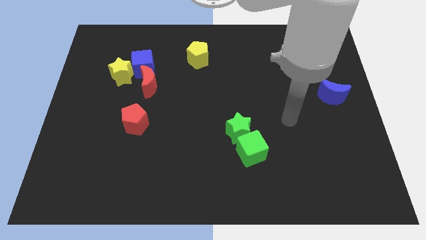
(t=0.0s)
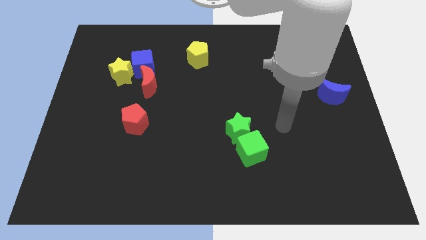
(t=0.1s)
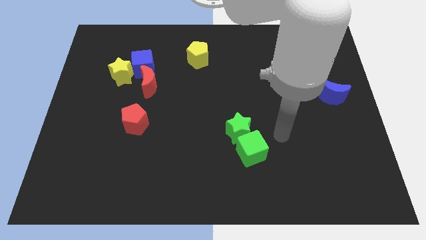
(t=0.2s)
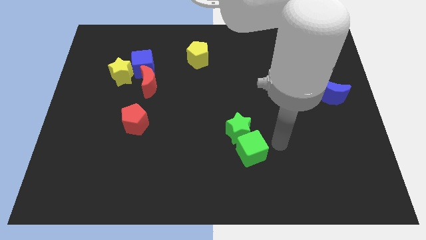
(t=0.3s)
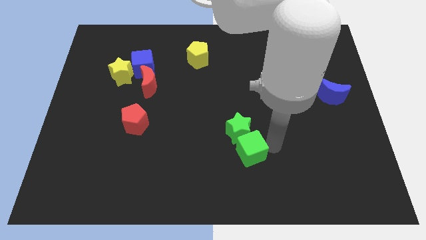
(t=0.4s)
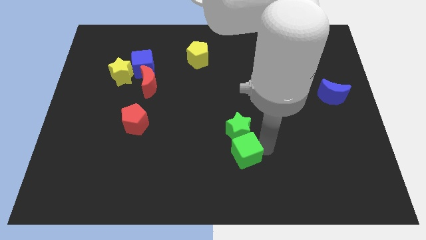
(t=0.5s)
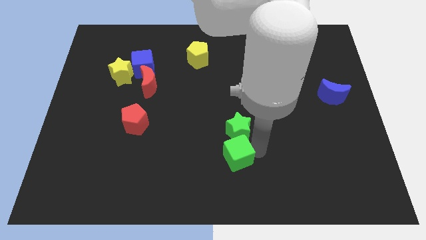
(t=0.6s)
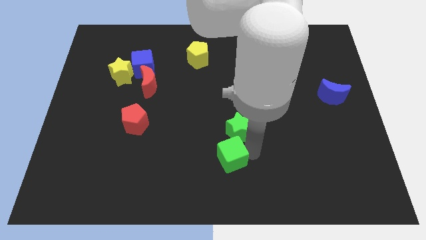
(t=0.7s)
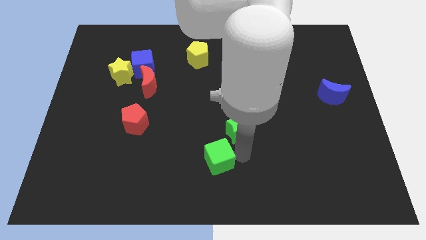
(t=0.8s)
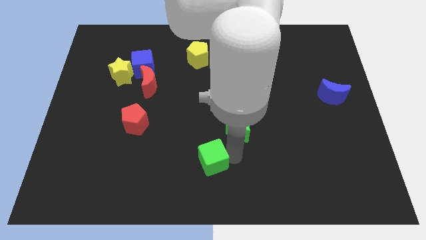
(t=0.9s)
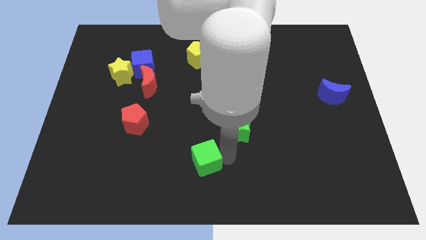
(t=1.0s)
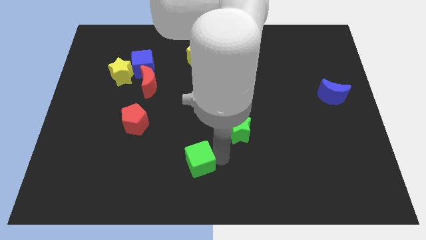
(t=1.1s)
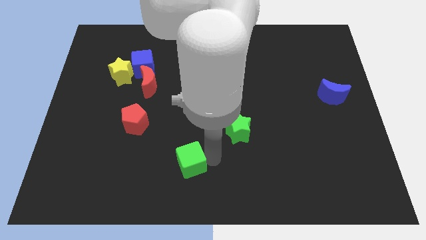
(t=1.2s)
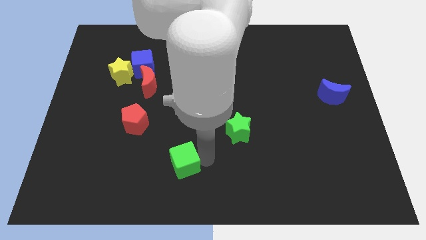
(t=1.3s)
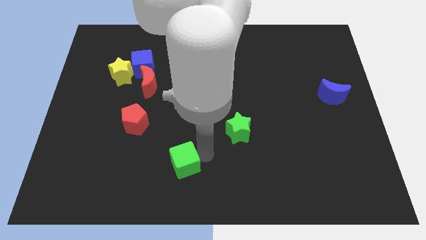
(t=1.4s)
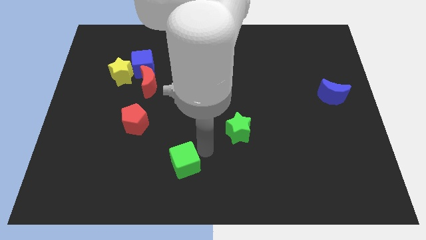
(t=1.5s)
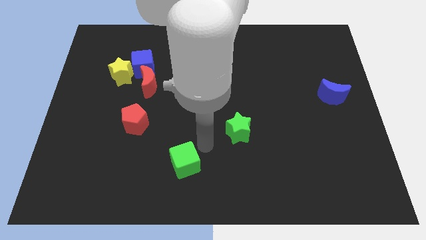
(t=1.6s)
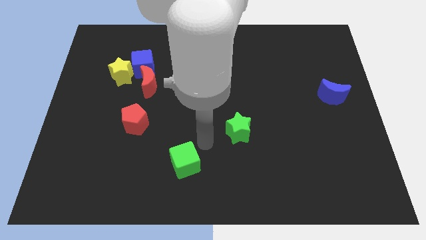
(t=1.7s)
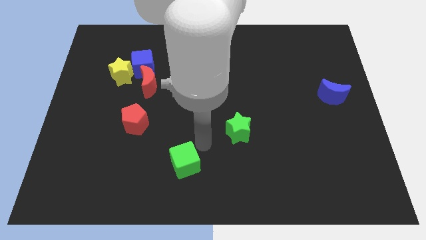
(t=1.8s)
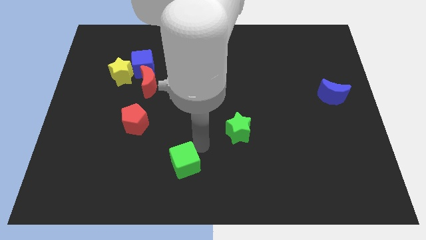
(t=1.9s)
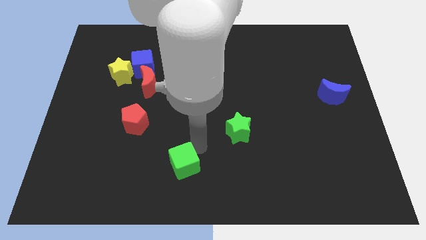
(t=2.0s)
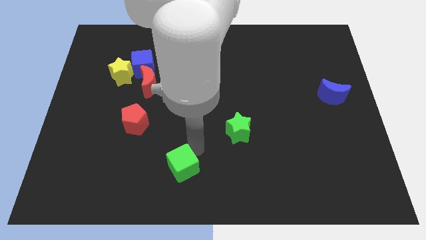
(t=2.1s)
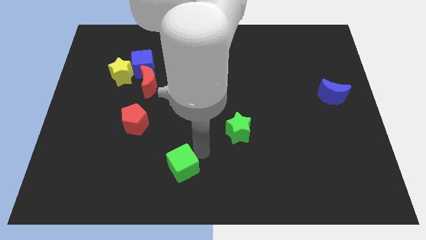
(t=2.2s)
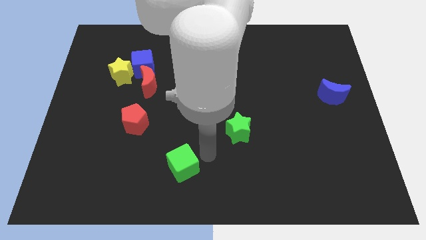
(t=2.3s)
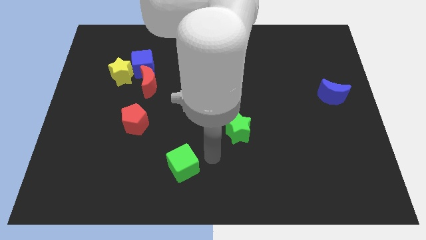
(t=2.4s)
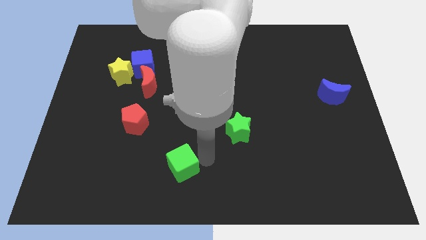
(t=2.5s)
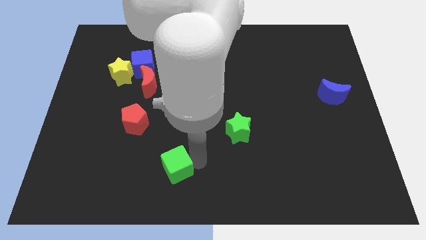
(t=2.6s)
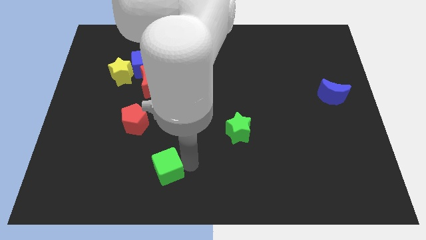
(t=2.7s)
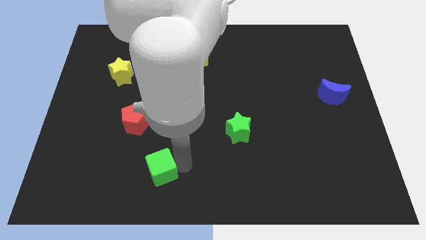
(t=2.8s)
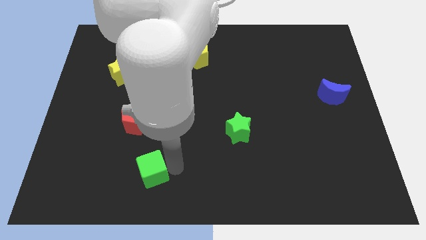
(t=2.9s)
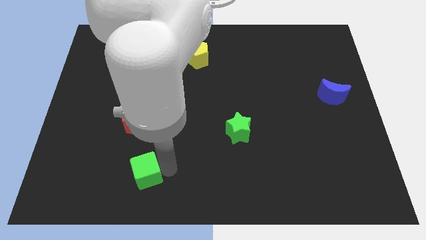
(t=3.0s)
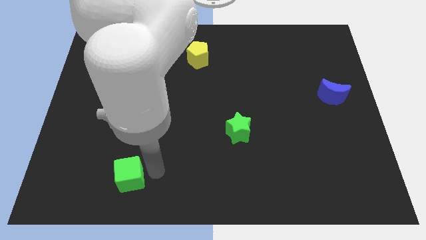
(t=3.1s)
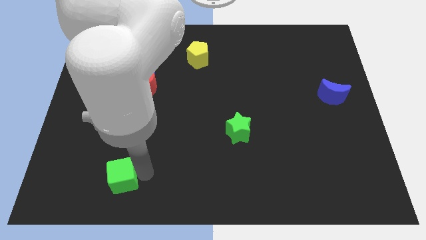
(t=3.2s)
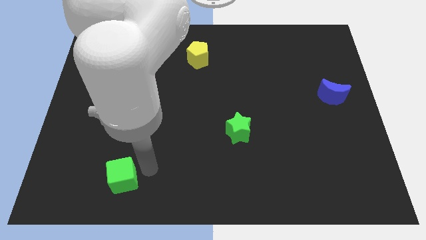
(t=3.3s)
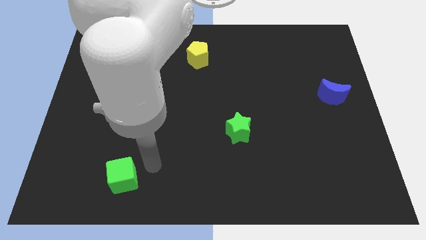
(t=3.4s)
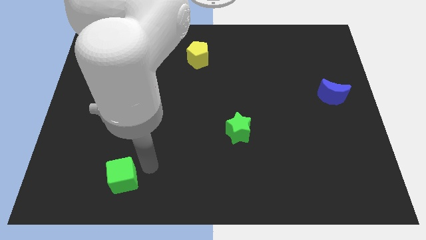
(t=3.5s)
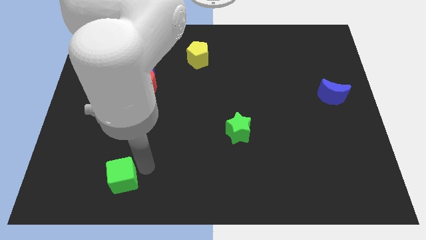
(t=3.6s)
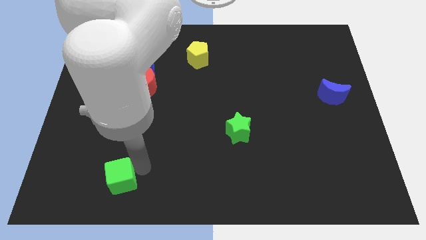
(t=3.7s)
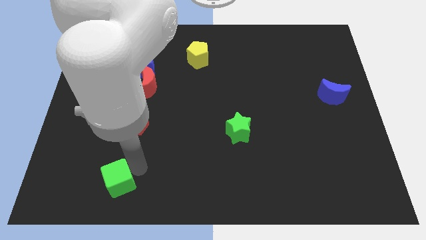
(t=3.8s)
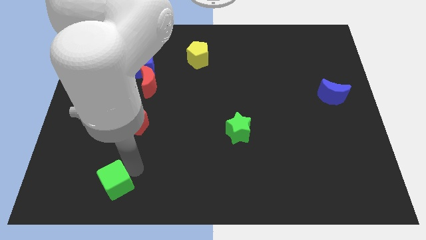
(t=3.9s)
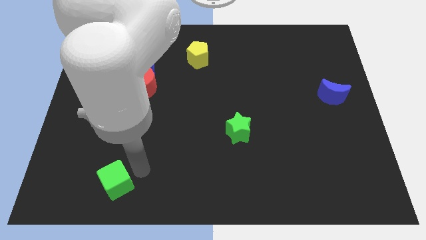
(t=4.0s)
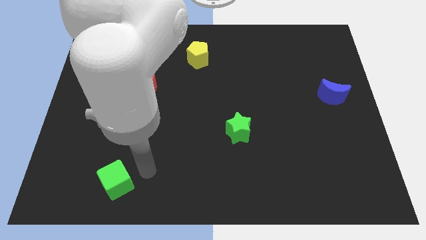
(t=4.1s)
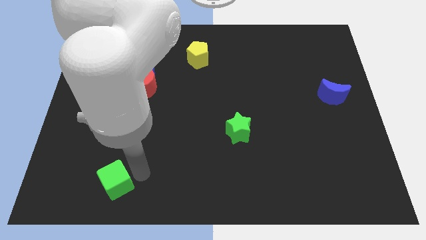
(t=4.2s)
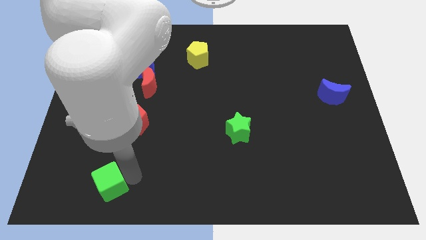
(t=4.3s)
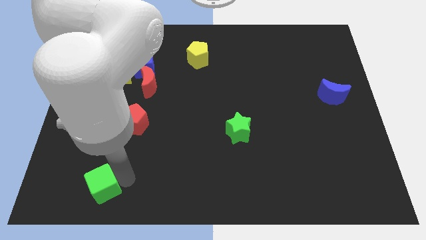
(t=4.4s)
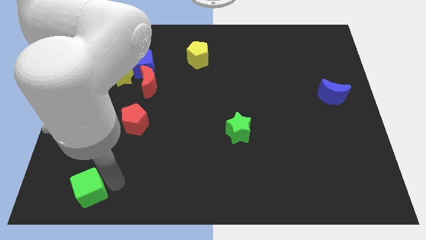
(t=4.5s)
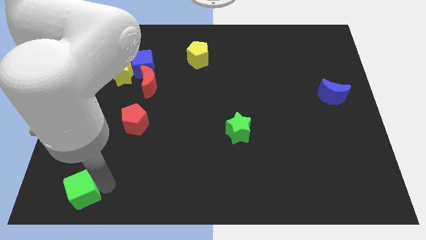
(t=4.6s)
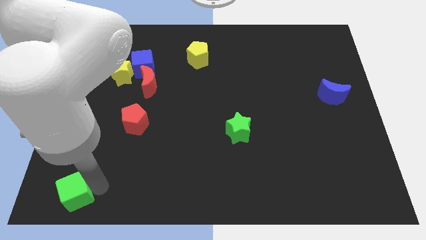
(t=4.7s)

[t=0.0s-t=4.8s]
put the green cube to the bottom left corner

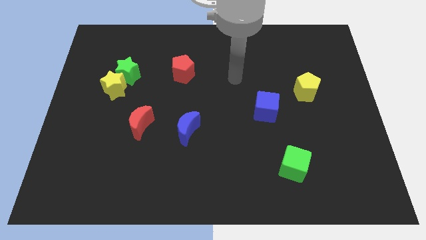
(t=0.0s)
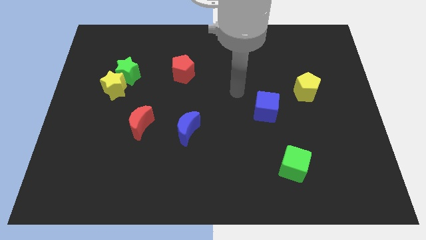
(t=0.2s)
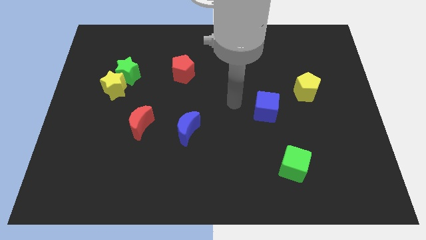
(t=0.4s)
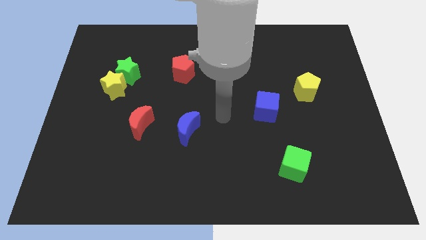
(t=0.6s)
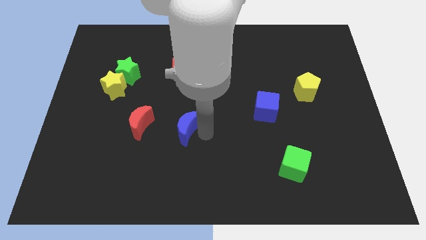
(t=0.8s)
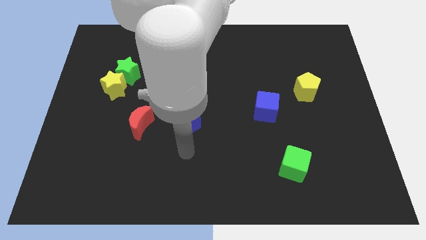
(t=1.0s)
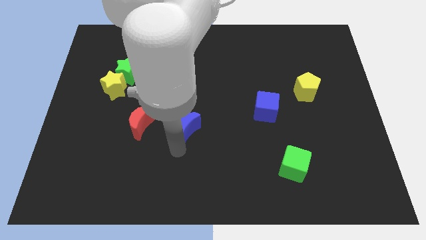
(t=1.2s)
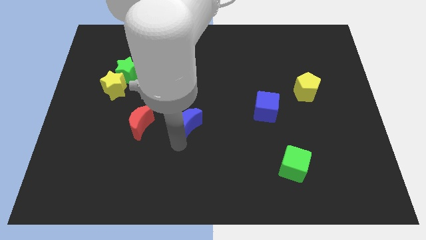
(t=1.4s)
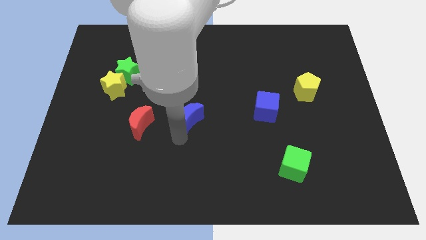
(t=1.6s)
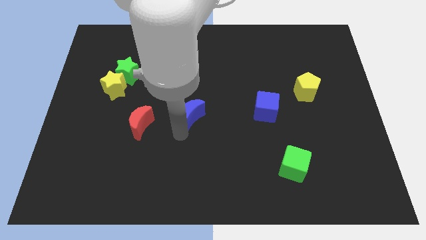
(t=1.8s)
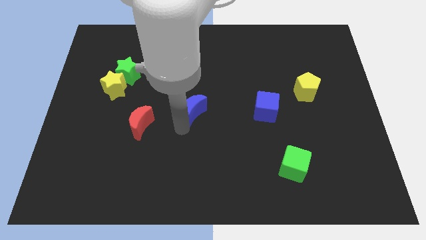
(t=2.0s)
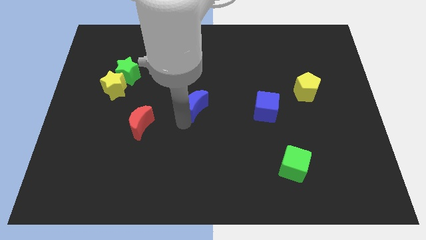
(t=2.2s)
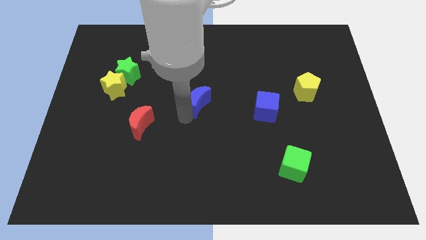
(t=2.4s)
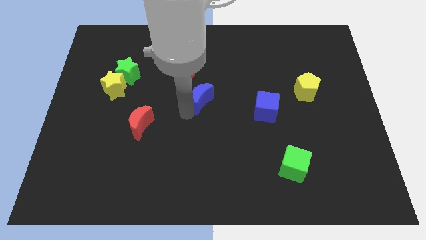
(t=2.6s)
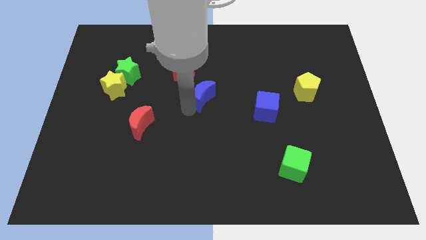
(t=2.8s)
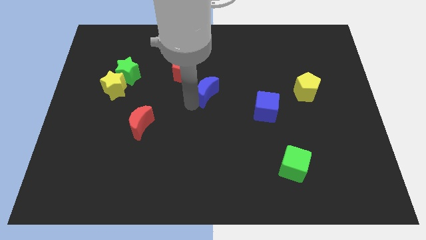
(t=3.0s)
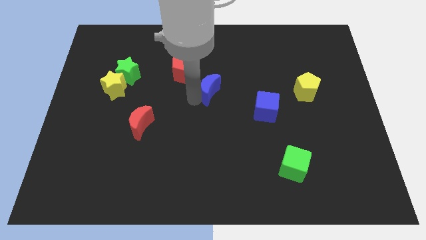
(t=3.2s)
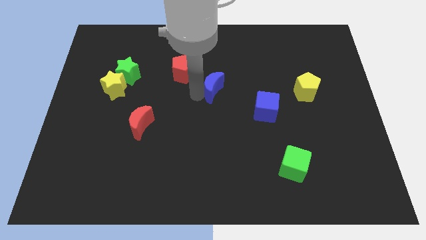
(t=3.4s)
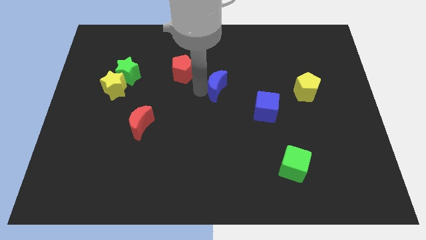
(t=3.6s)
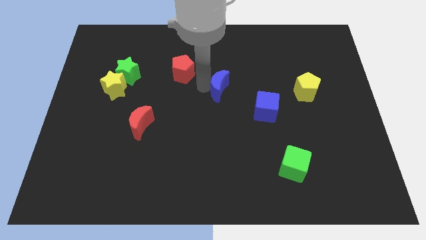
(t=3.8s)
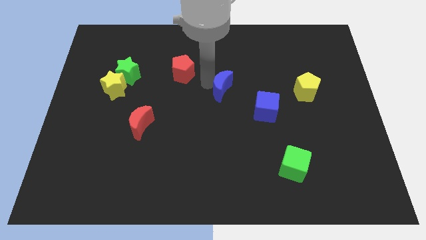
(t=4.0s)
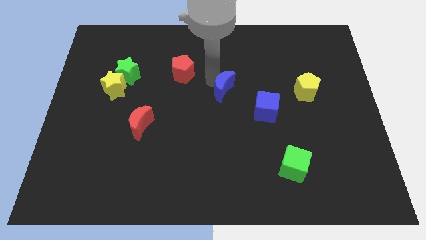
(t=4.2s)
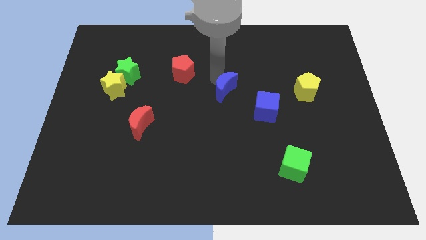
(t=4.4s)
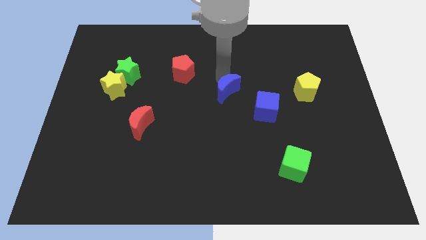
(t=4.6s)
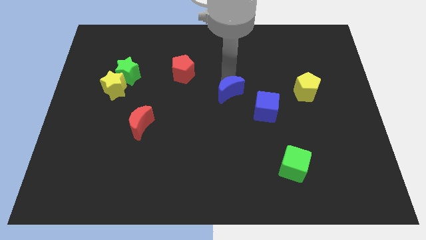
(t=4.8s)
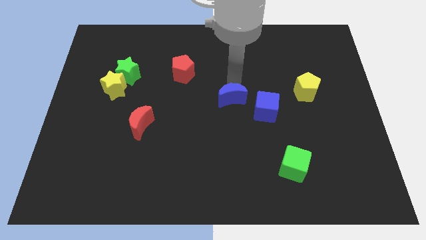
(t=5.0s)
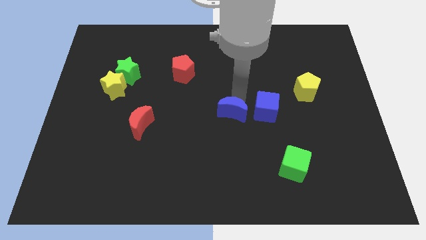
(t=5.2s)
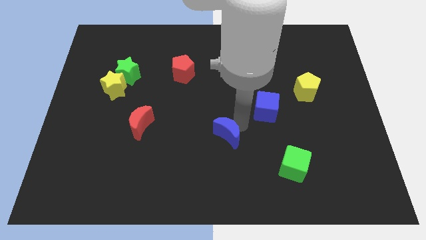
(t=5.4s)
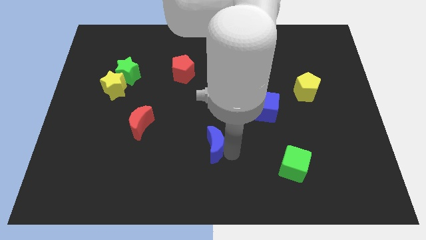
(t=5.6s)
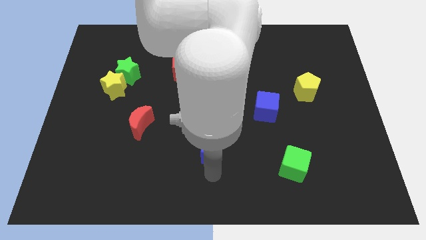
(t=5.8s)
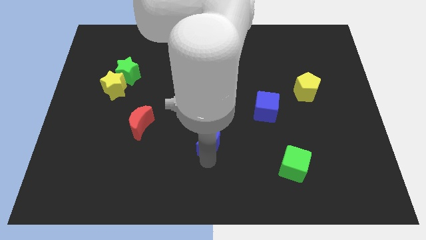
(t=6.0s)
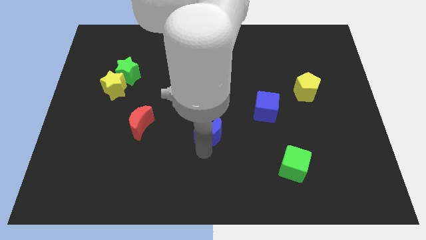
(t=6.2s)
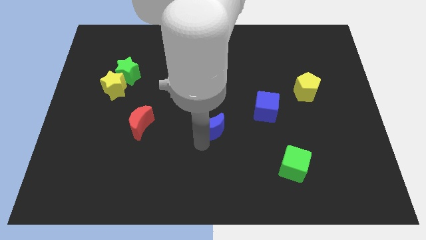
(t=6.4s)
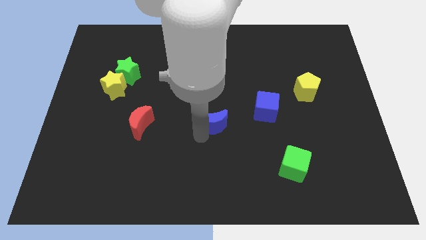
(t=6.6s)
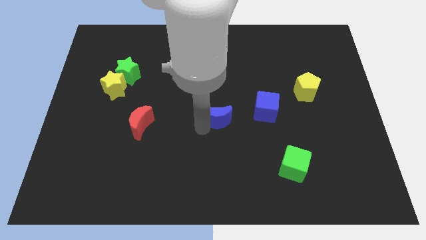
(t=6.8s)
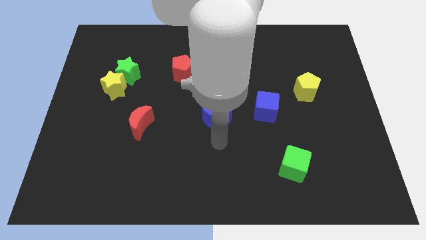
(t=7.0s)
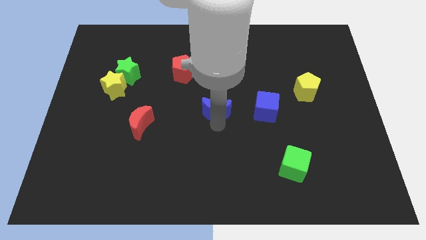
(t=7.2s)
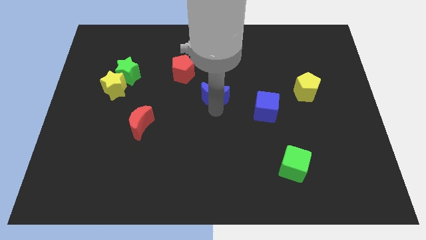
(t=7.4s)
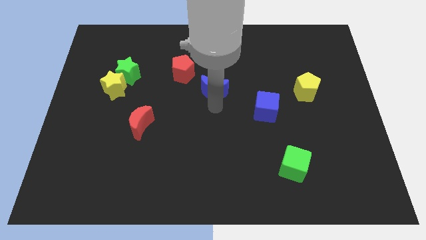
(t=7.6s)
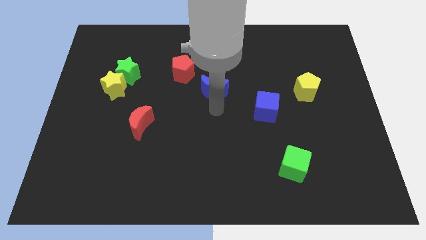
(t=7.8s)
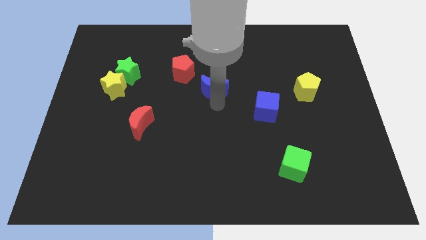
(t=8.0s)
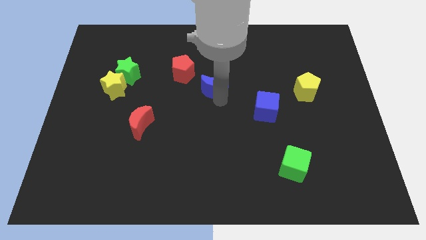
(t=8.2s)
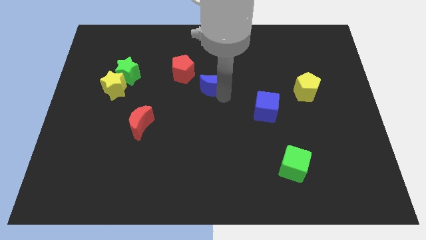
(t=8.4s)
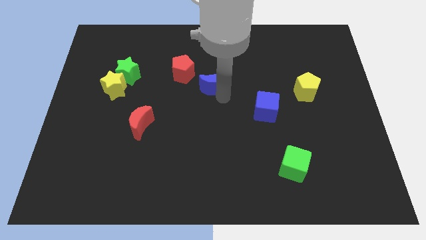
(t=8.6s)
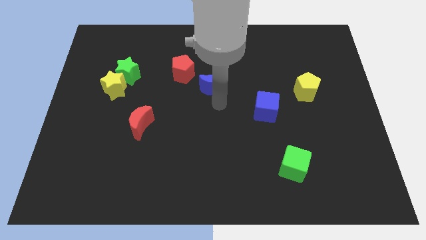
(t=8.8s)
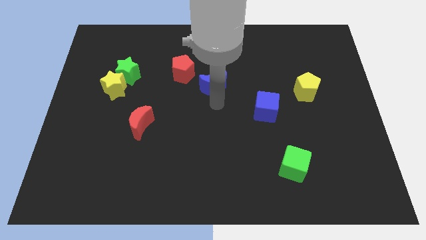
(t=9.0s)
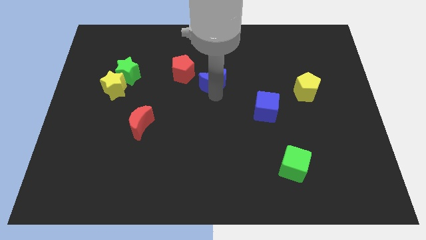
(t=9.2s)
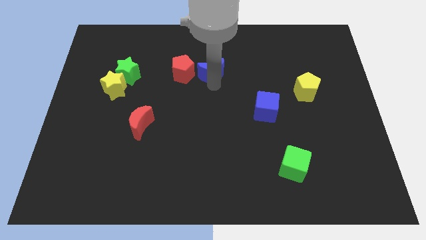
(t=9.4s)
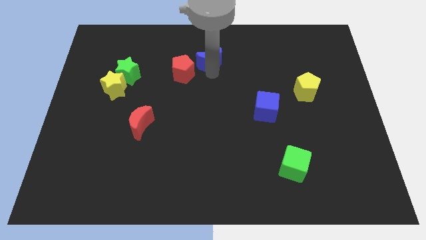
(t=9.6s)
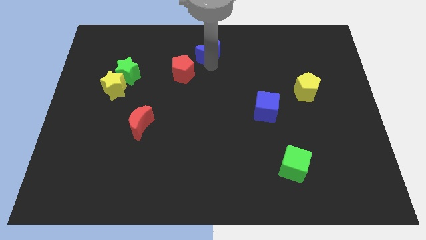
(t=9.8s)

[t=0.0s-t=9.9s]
put the blue moon to the top side
